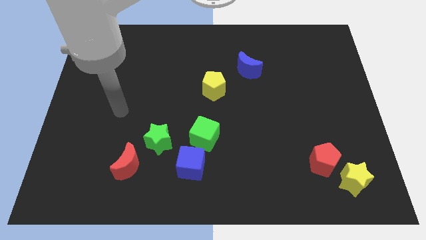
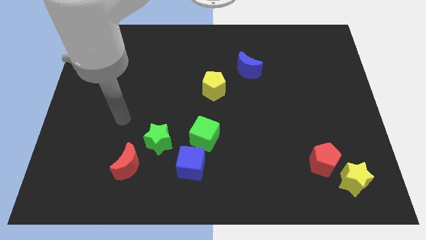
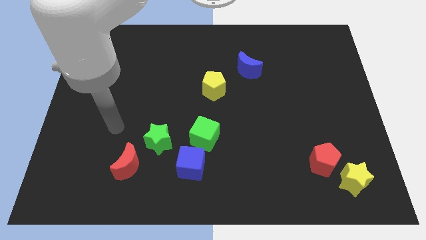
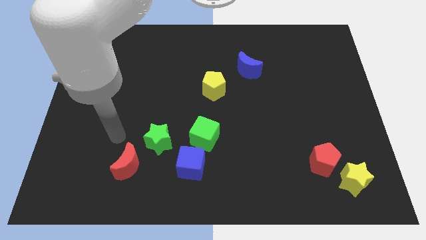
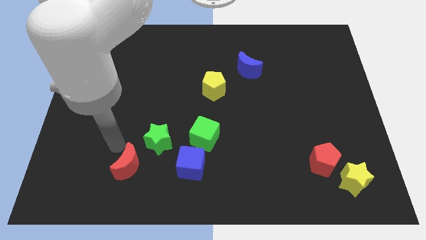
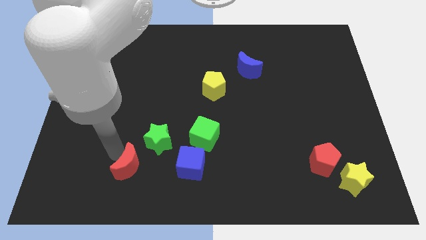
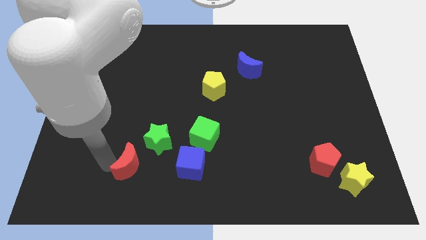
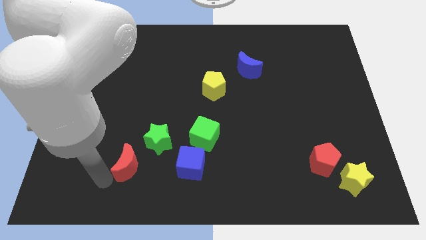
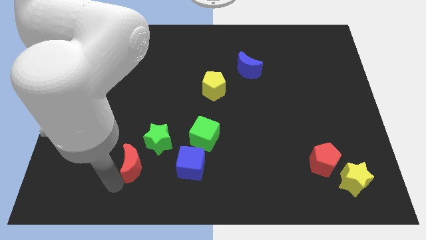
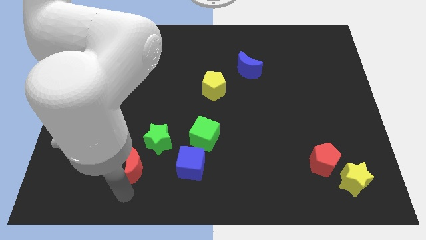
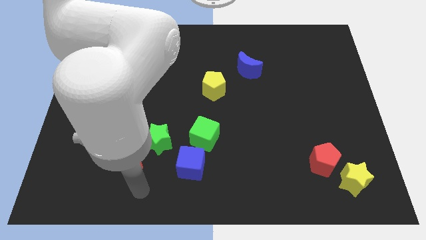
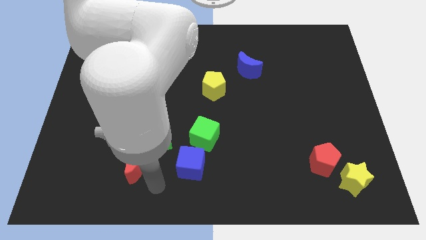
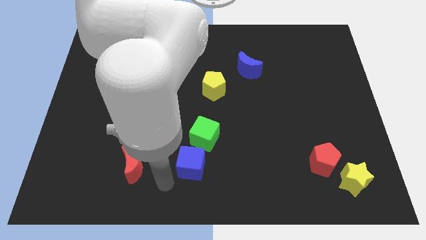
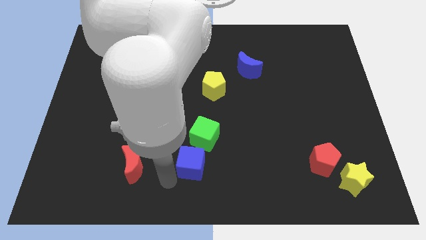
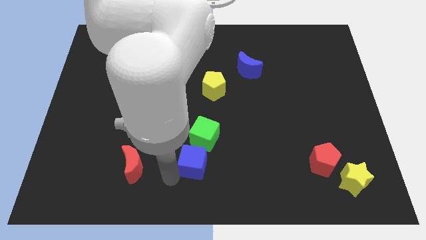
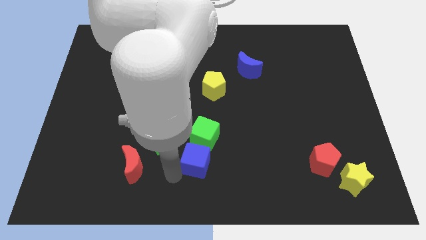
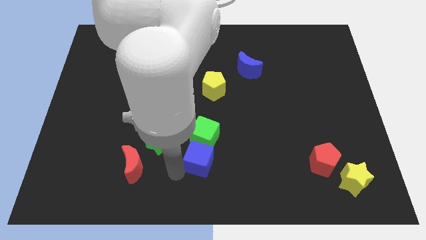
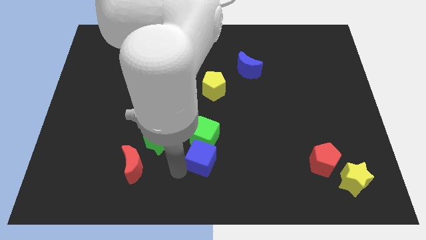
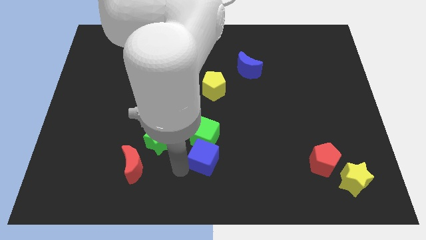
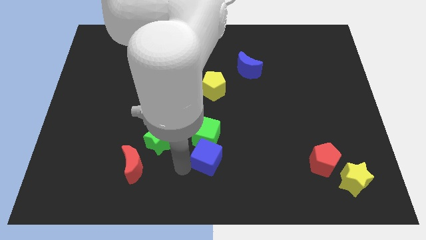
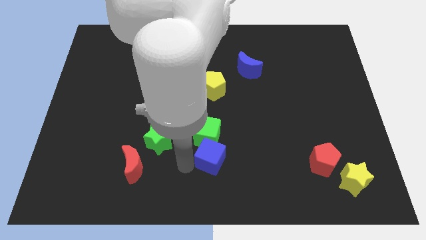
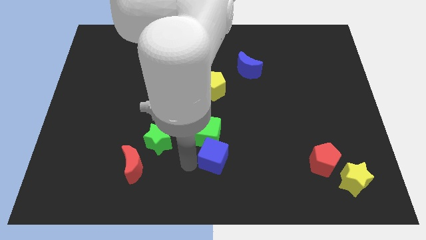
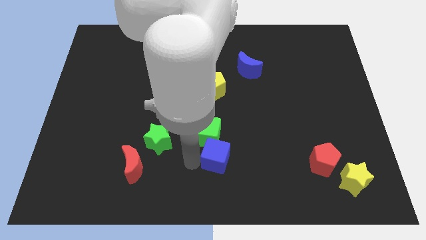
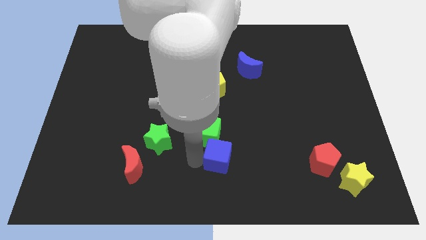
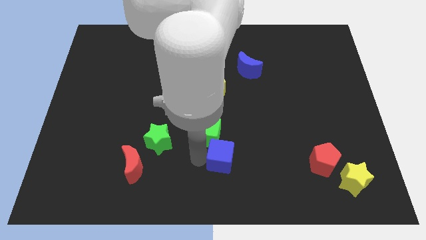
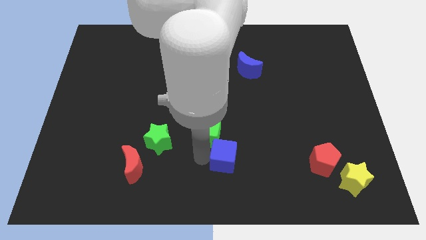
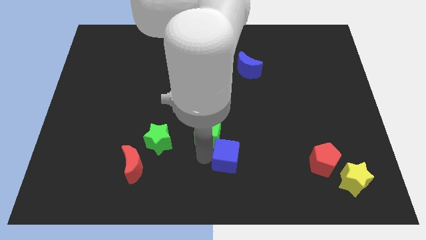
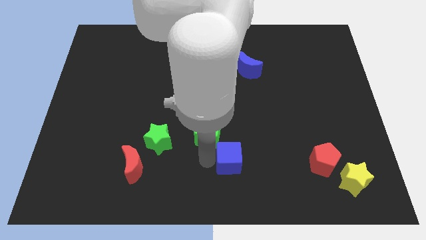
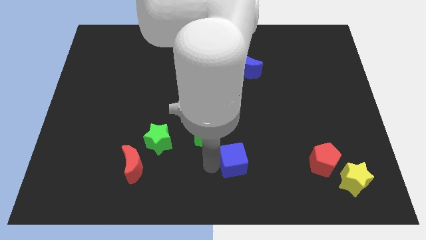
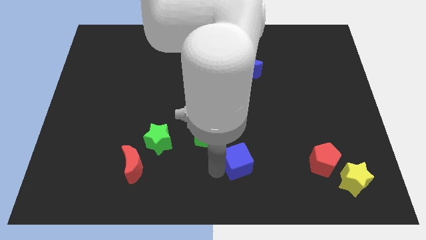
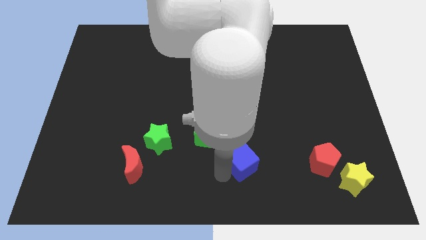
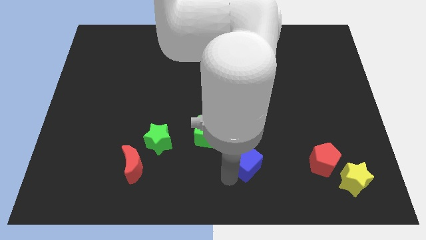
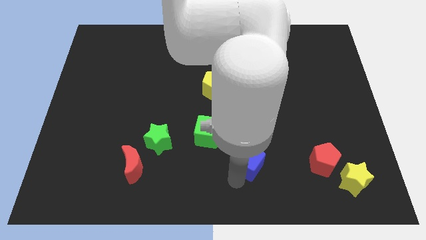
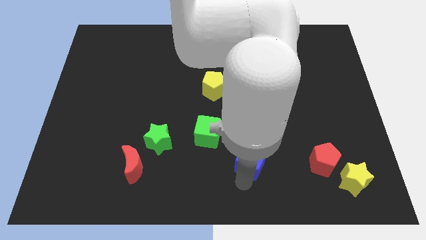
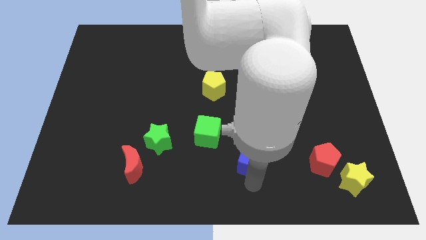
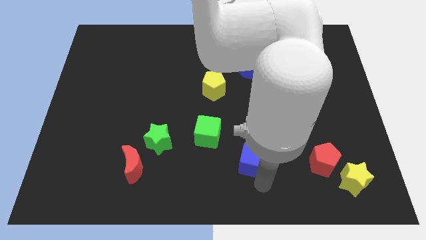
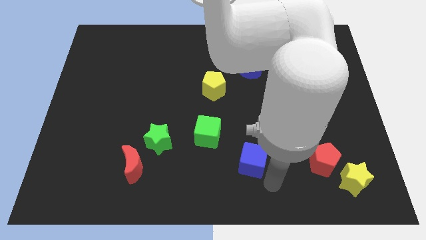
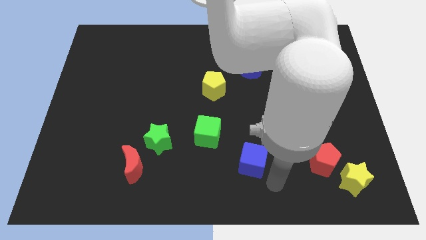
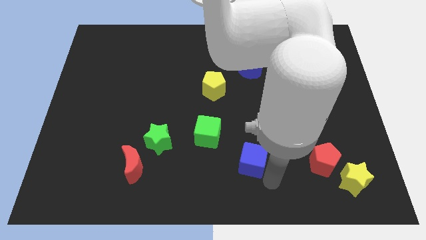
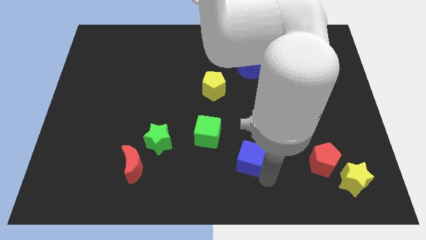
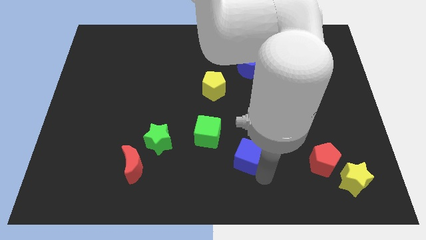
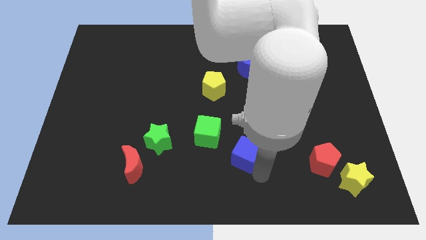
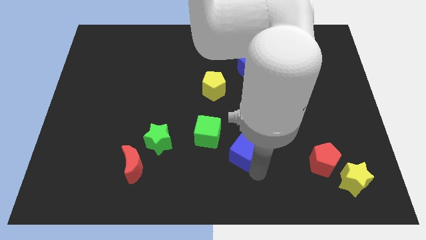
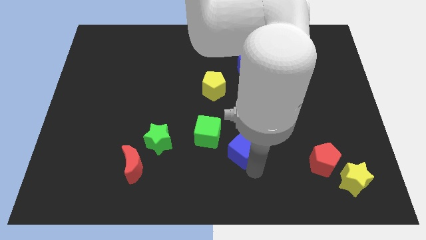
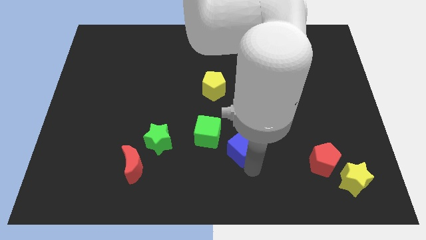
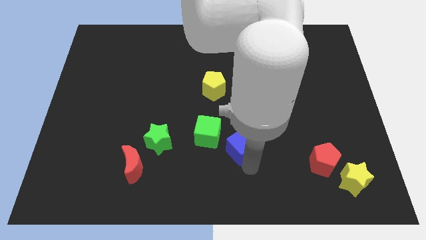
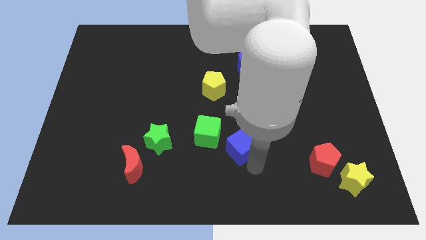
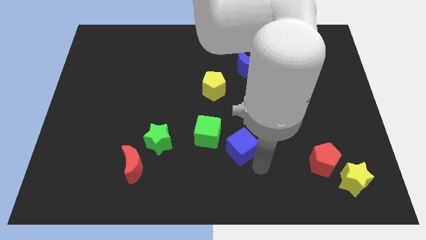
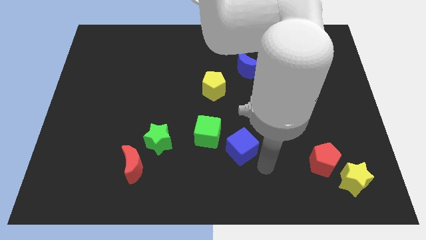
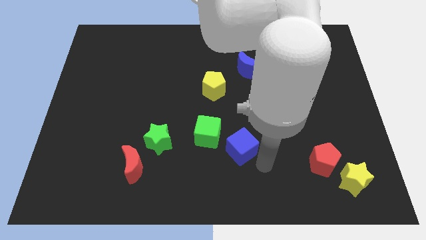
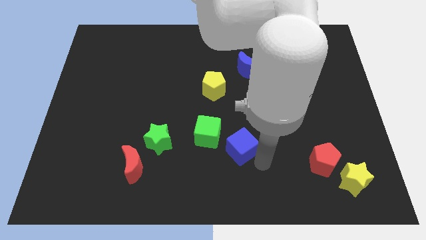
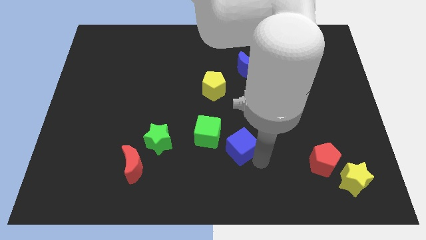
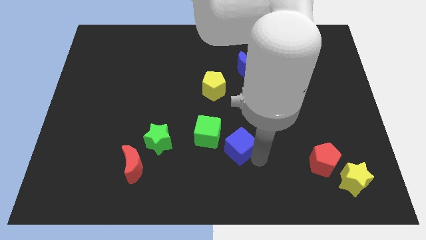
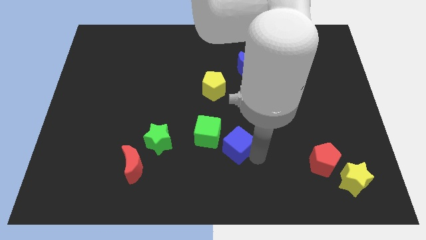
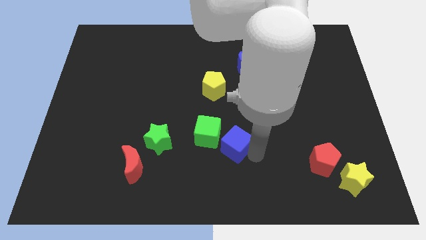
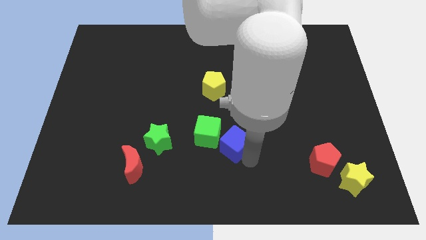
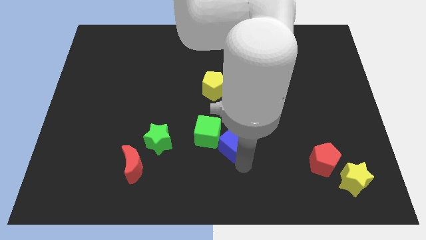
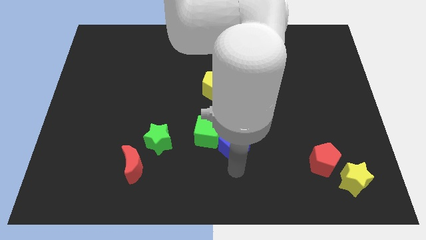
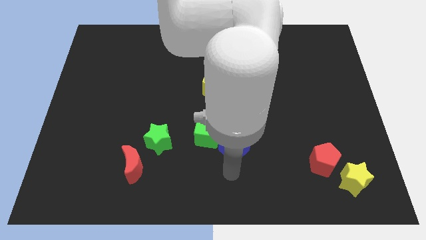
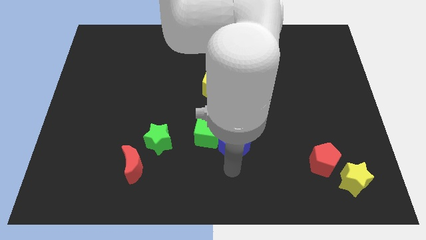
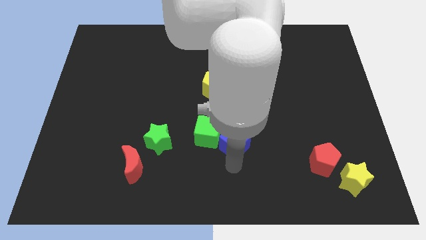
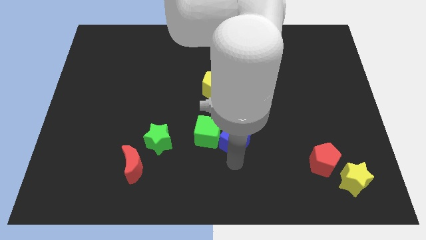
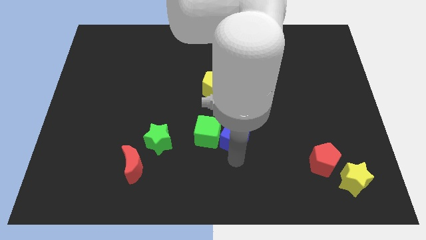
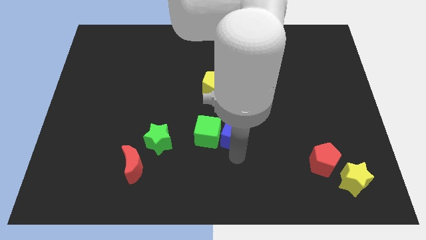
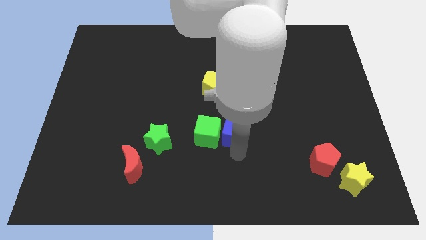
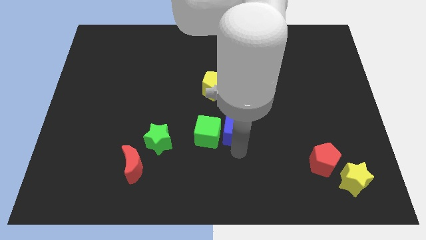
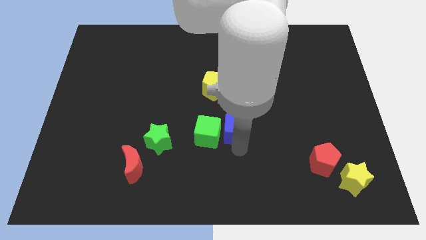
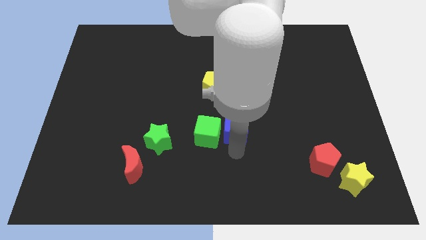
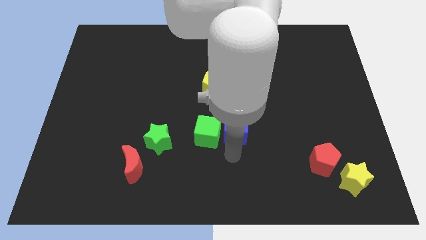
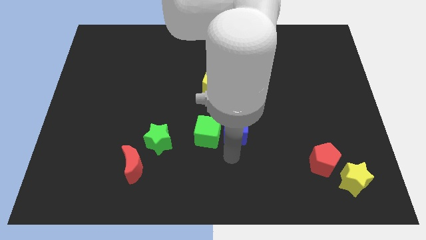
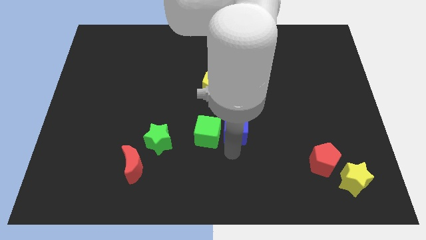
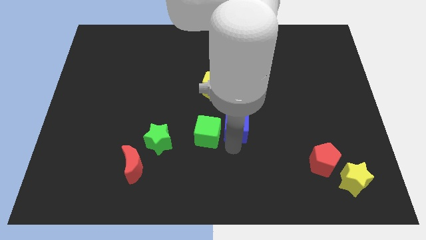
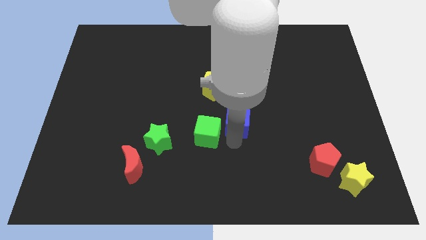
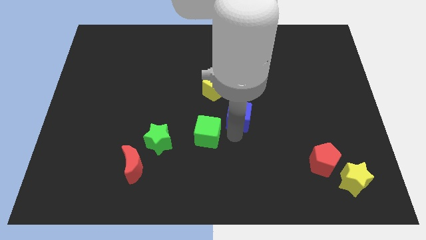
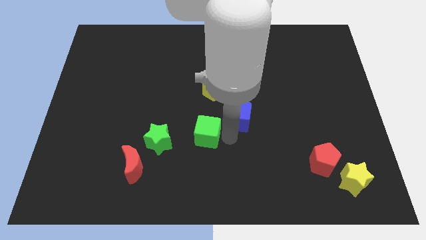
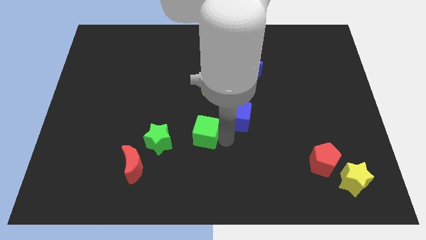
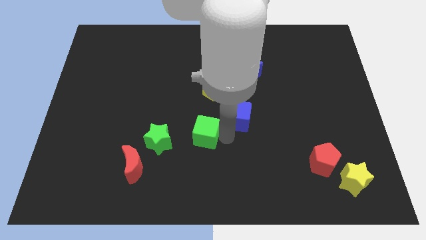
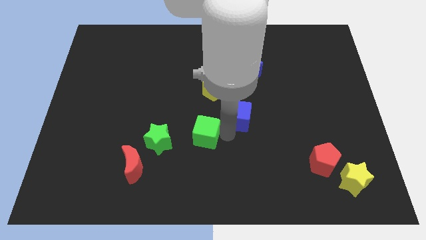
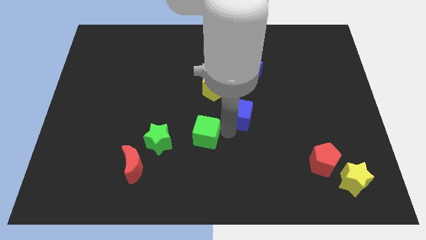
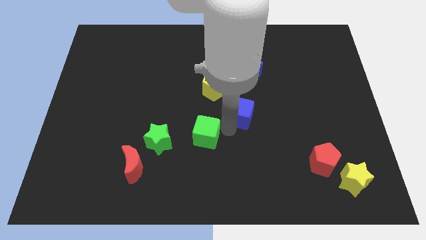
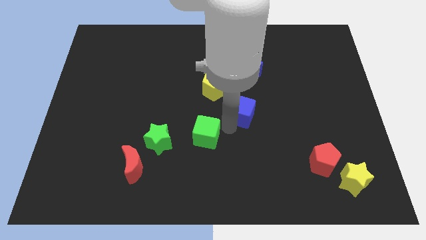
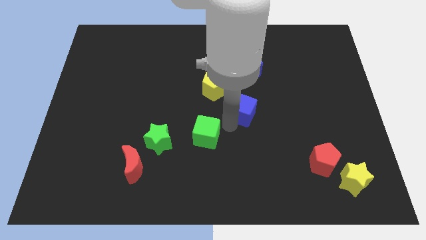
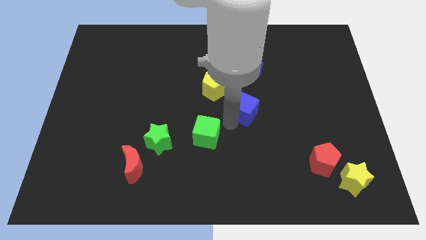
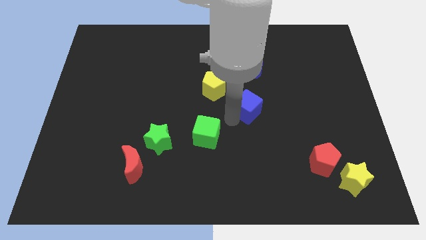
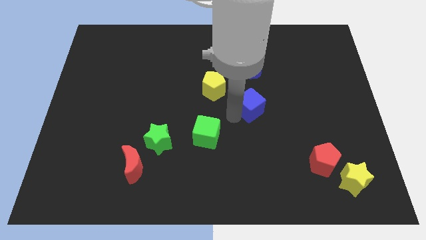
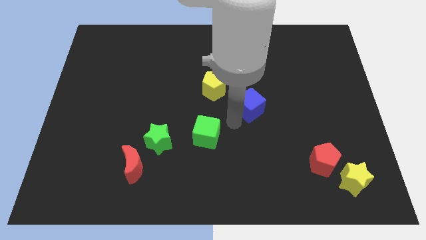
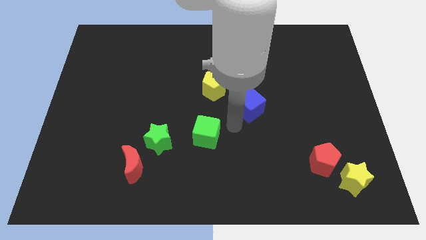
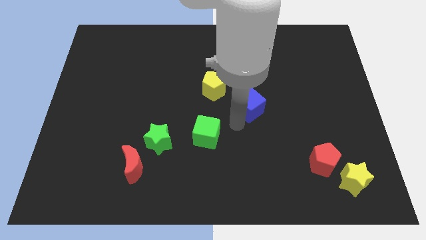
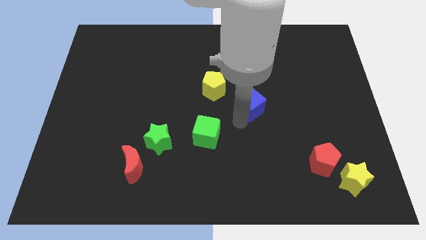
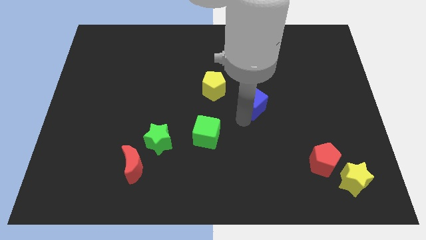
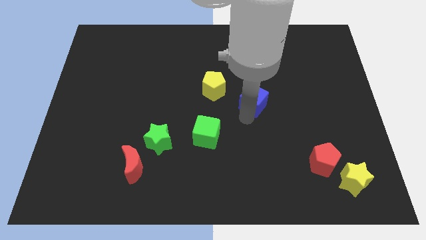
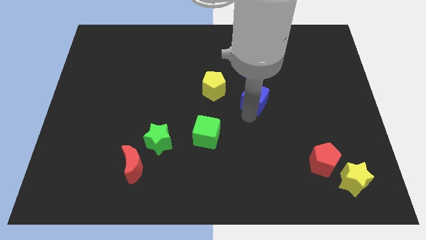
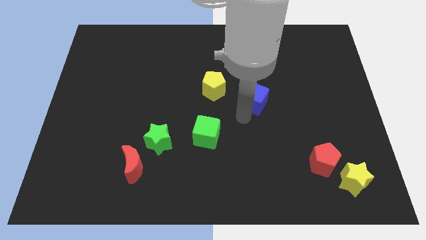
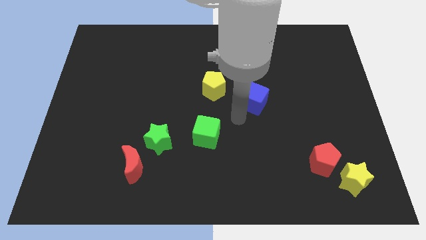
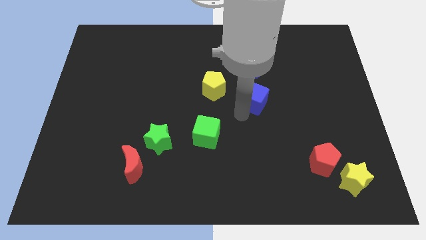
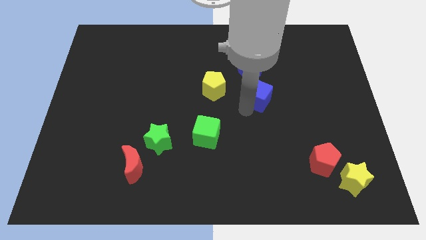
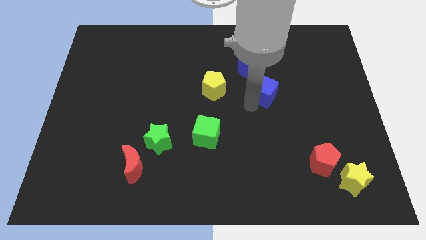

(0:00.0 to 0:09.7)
slide the blue cube to the bottom right side of the blue moon
